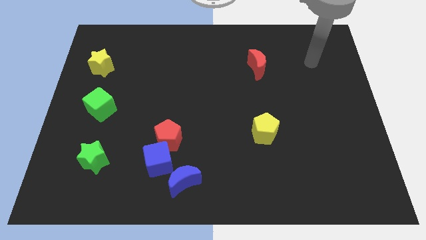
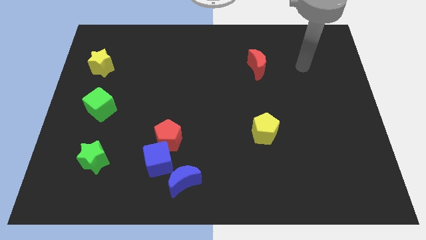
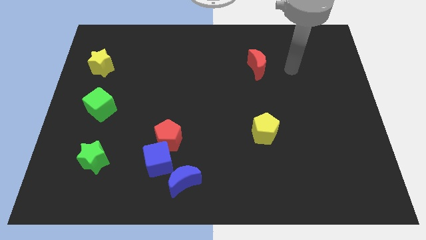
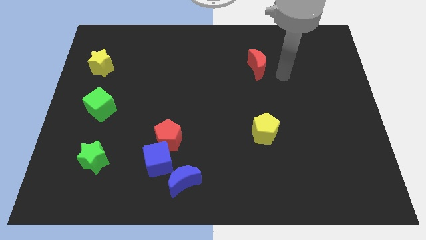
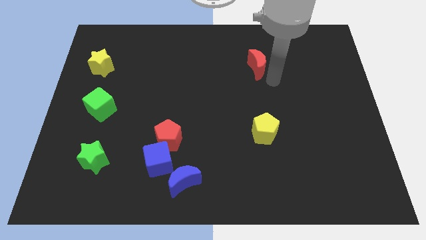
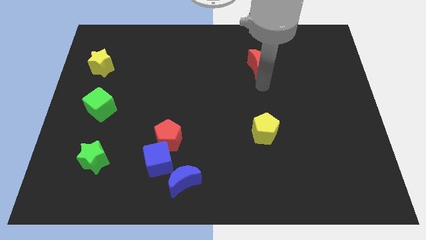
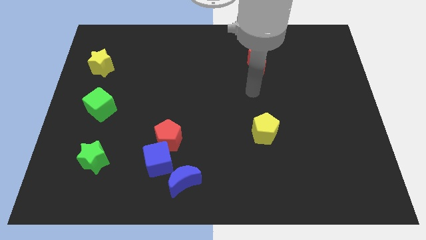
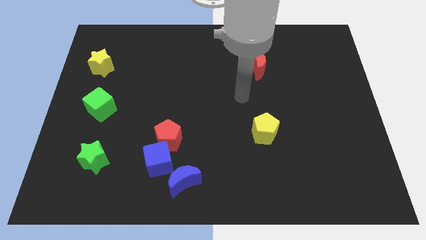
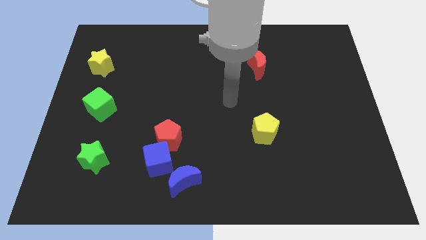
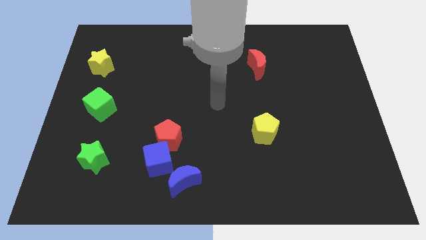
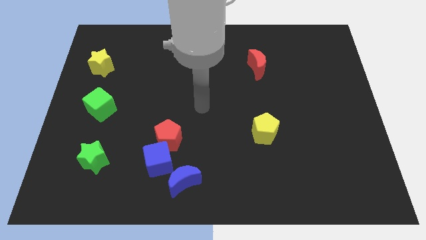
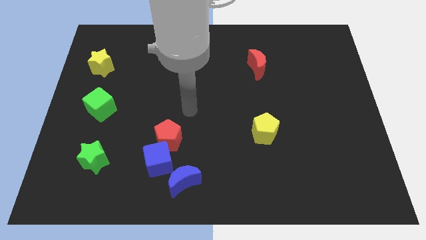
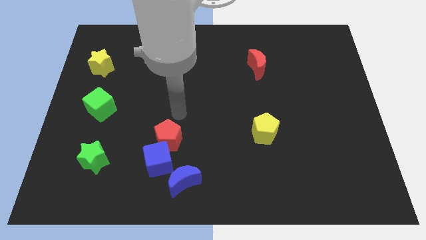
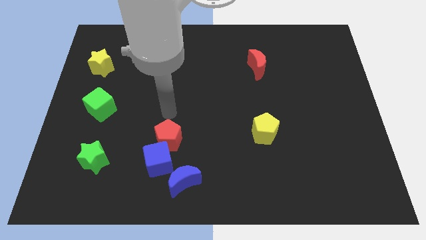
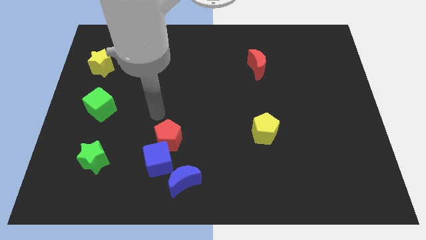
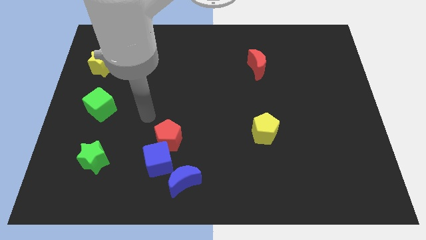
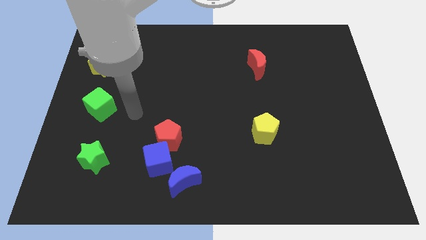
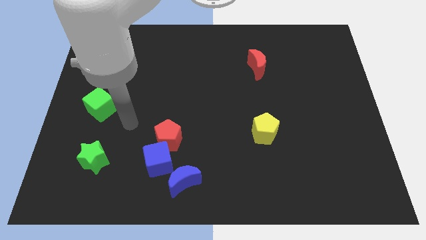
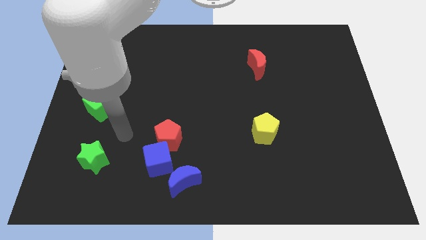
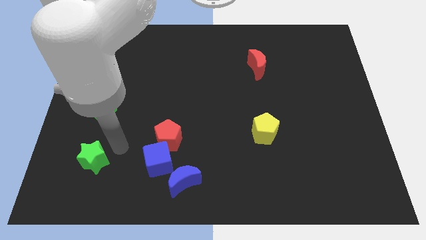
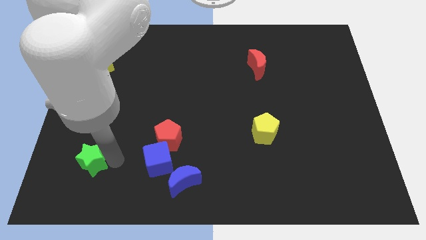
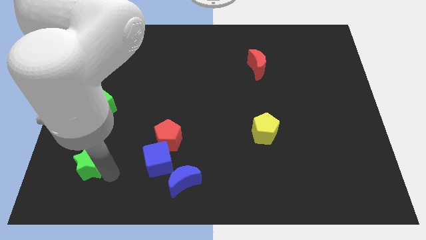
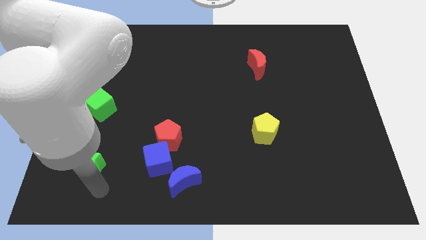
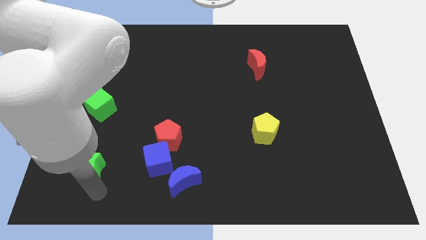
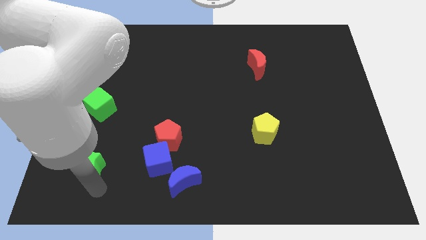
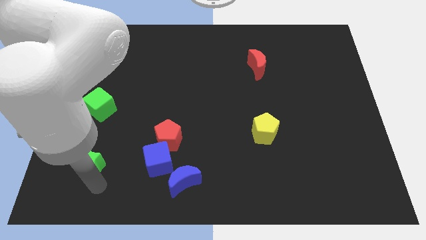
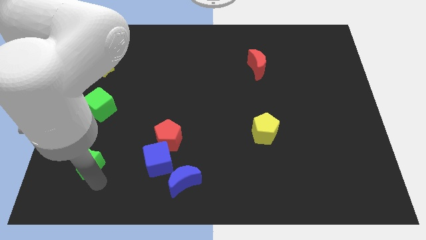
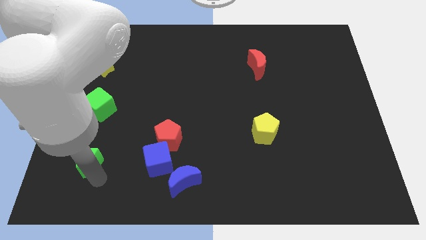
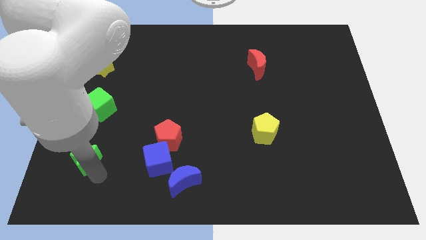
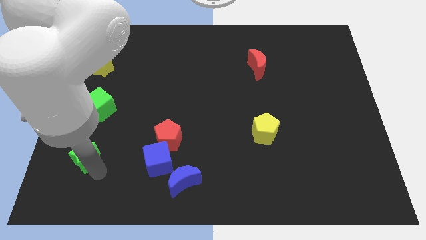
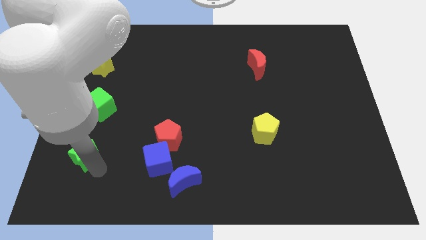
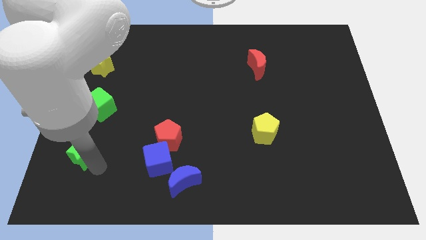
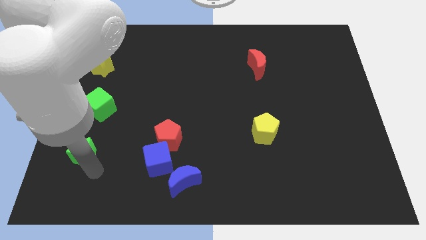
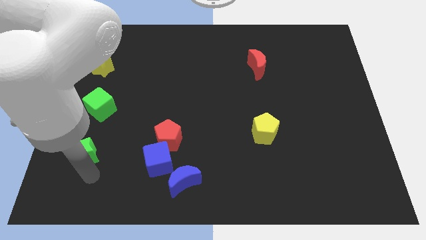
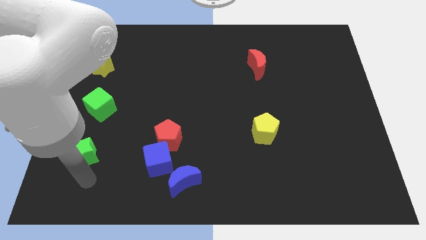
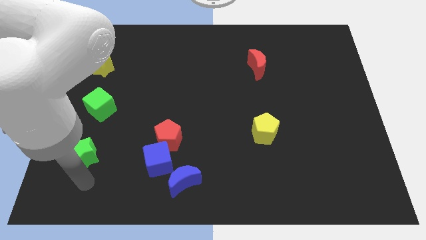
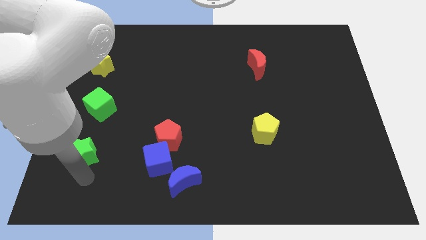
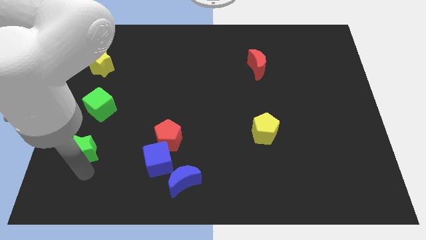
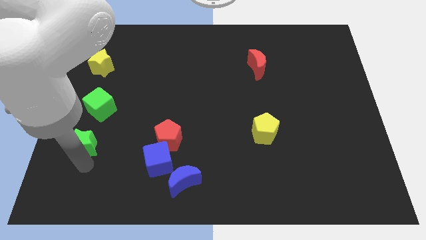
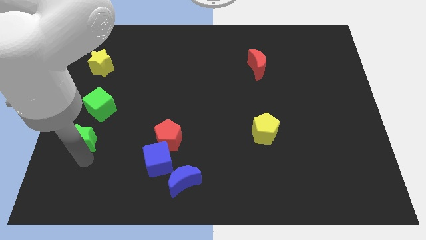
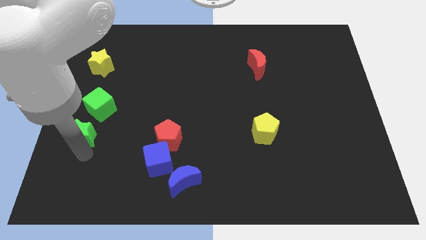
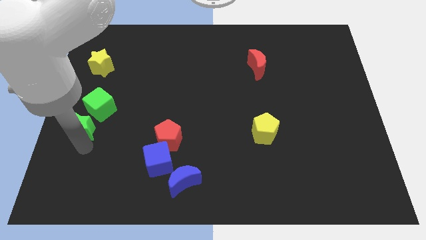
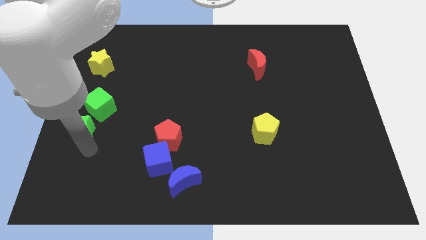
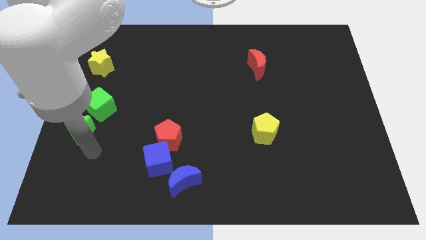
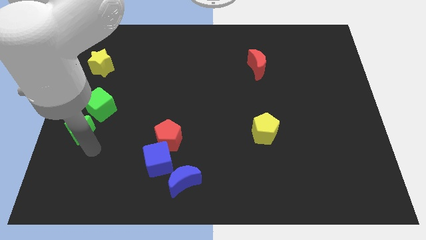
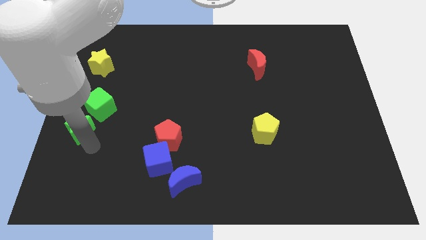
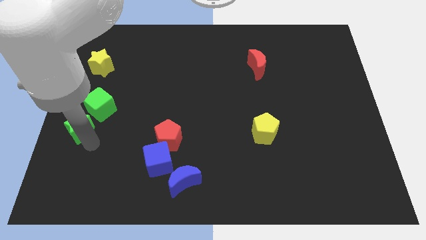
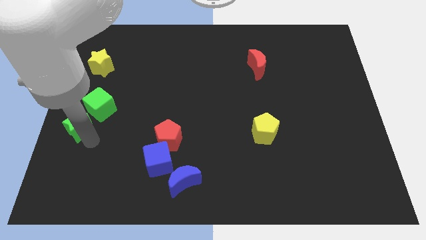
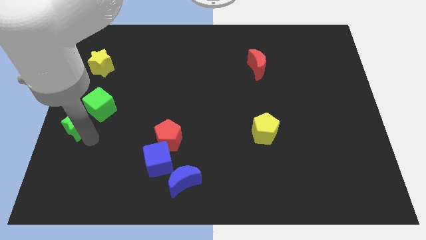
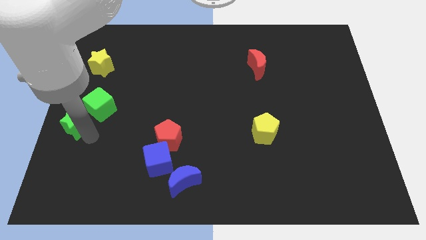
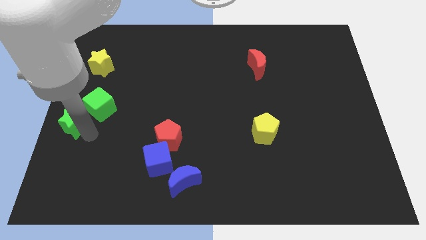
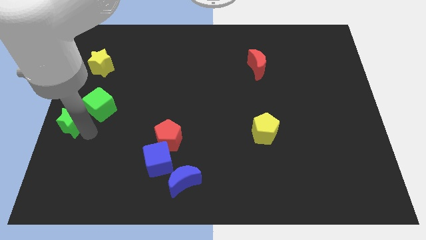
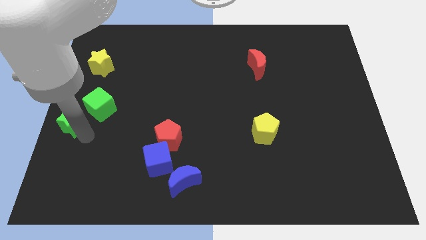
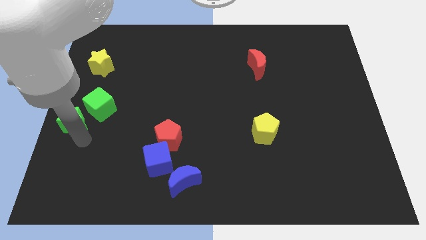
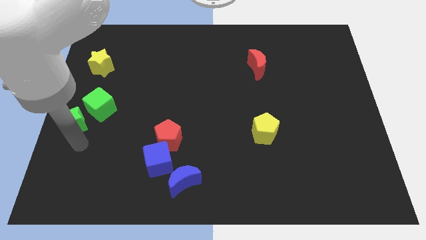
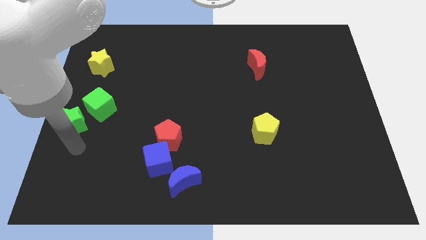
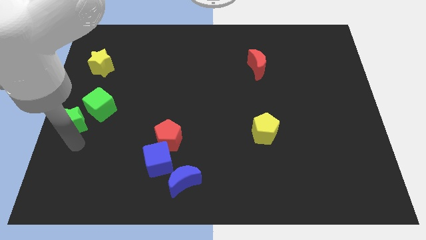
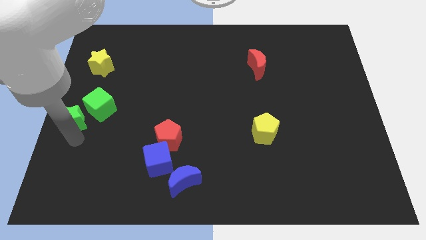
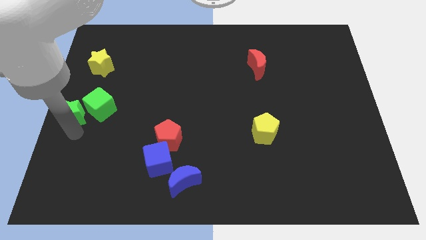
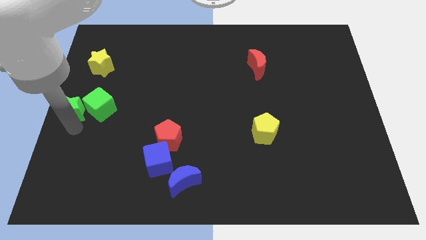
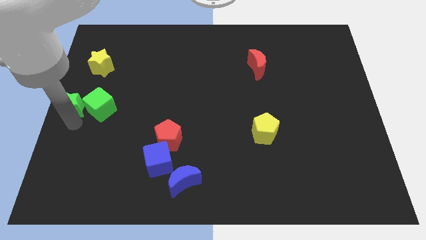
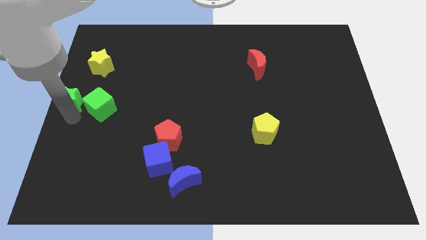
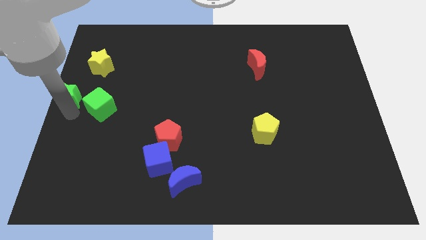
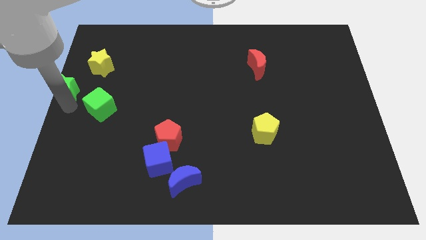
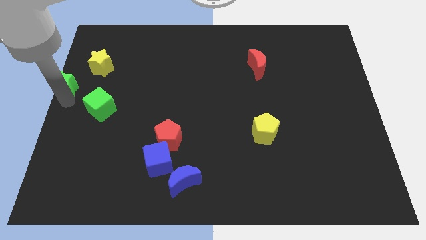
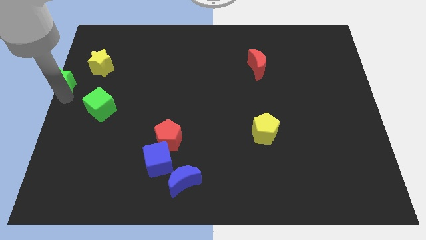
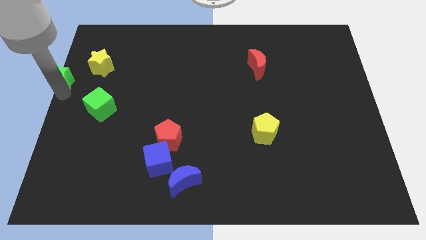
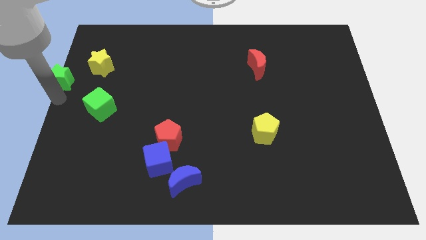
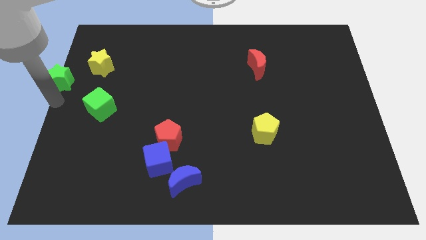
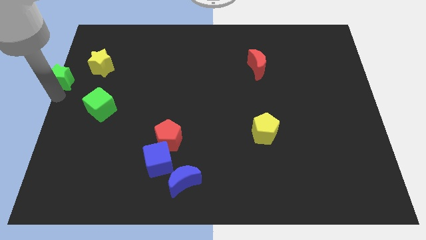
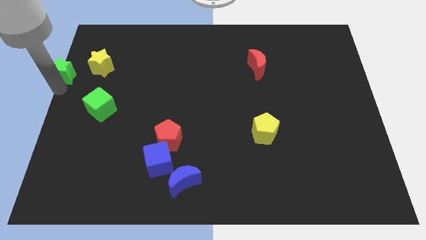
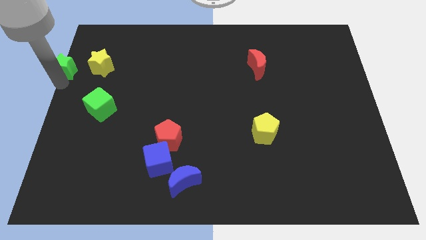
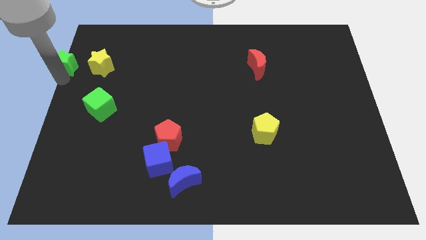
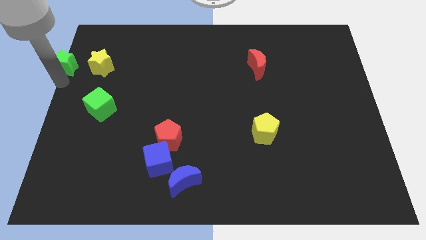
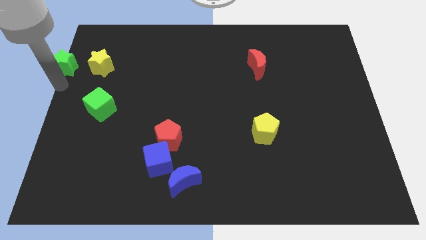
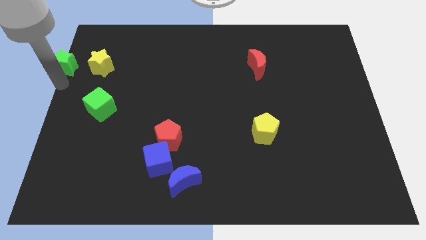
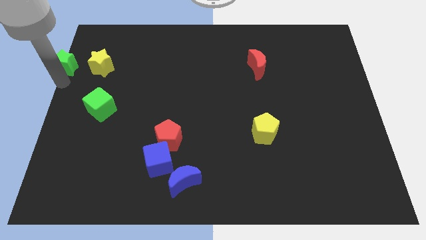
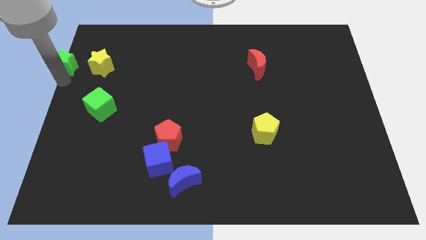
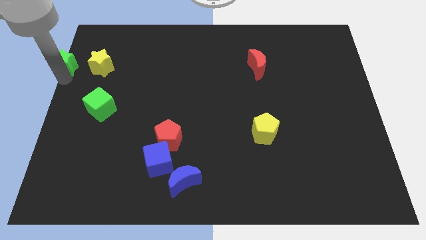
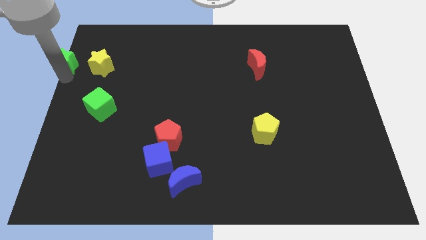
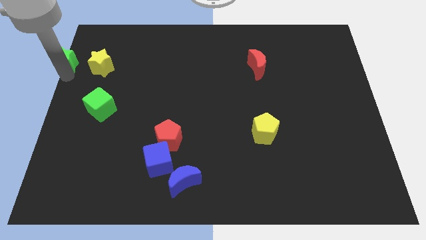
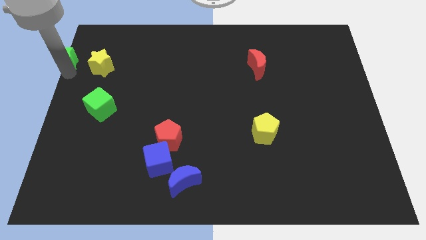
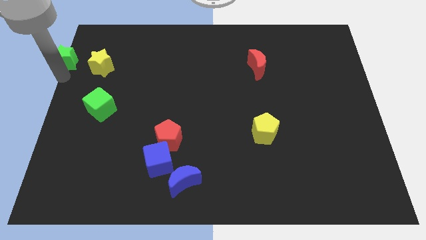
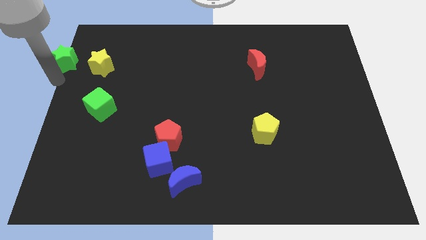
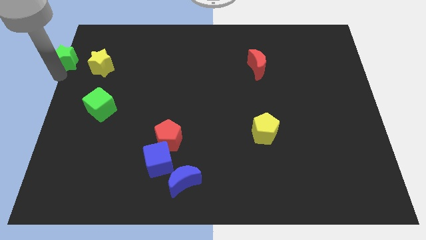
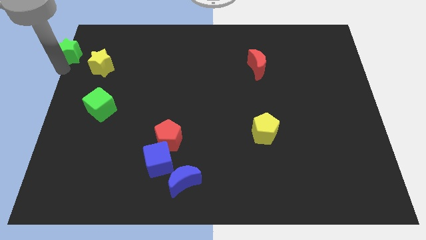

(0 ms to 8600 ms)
put the green star to the top left of the board
